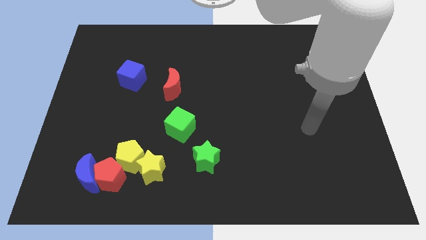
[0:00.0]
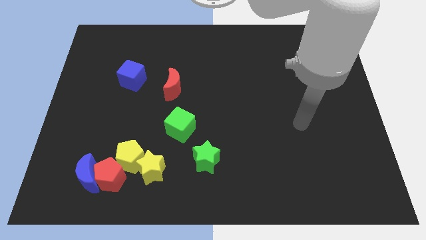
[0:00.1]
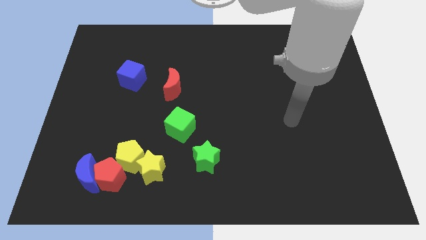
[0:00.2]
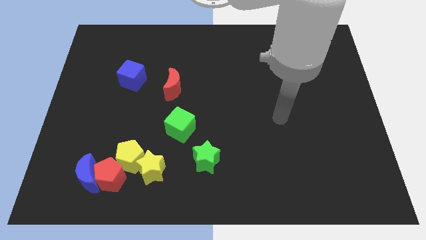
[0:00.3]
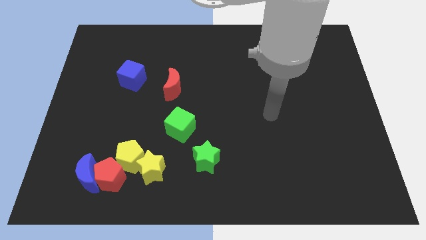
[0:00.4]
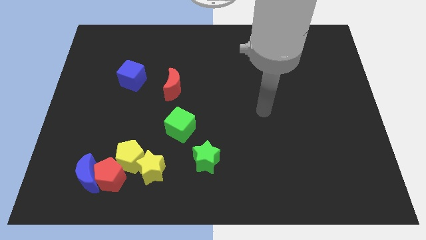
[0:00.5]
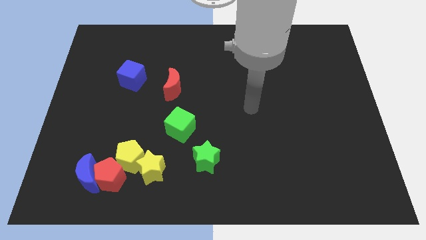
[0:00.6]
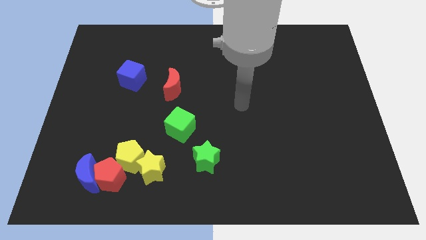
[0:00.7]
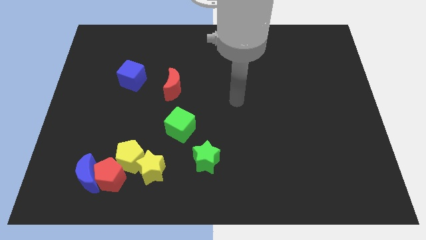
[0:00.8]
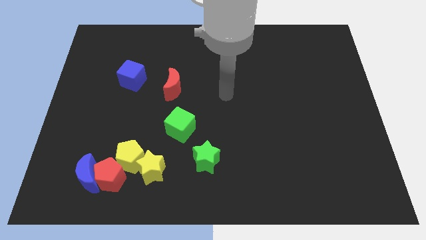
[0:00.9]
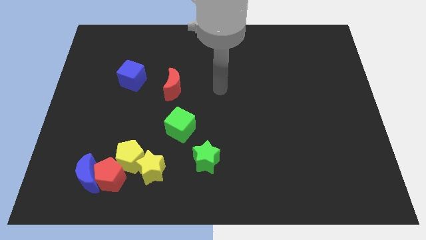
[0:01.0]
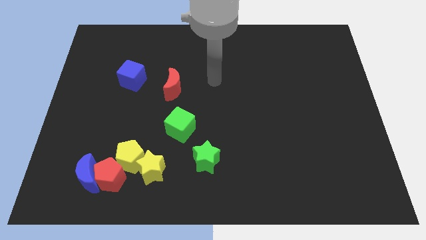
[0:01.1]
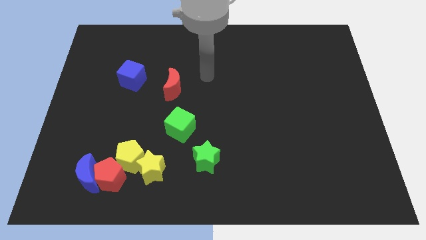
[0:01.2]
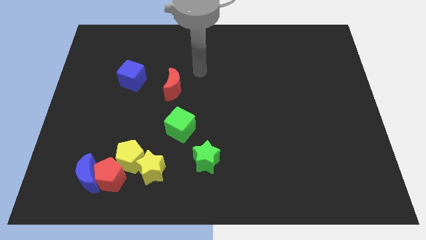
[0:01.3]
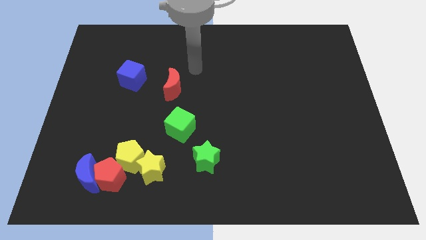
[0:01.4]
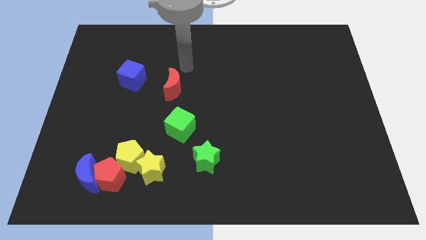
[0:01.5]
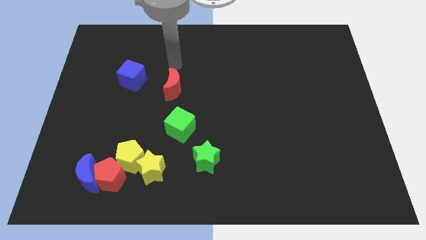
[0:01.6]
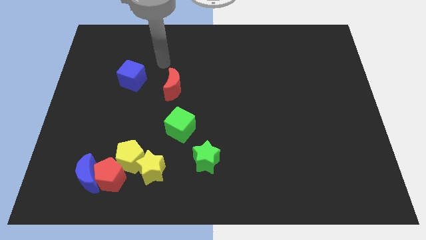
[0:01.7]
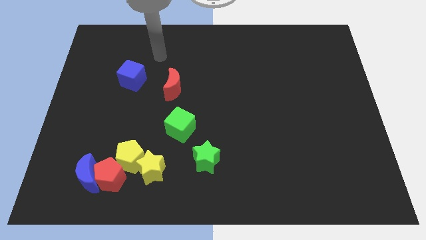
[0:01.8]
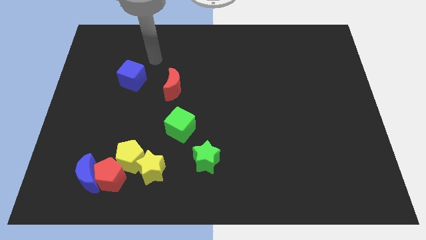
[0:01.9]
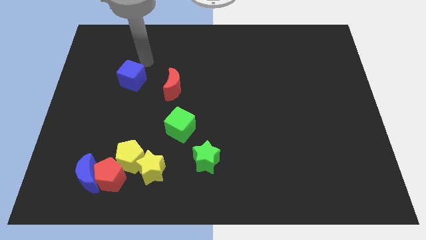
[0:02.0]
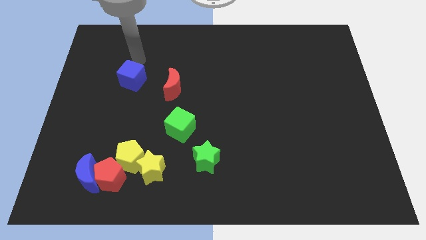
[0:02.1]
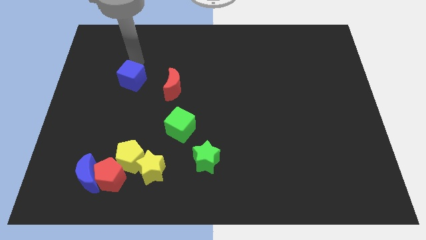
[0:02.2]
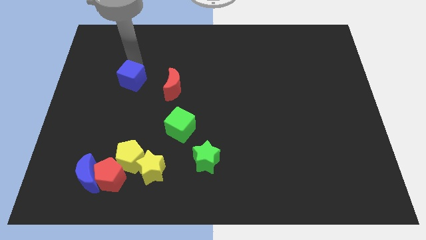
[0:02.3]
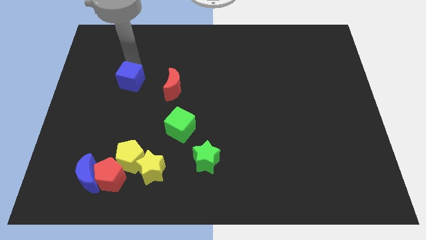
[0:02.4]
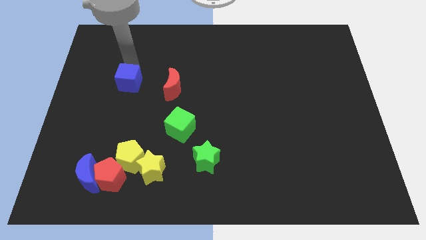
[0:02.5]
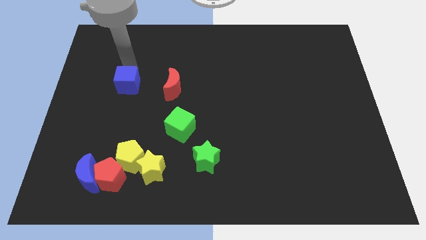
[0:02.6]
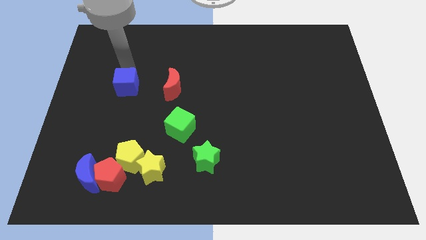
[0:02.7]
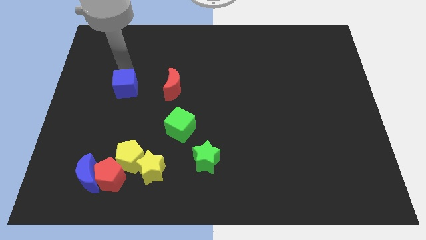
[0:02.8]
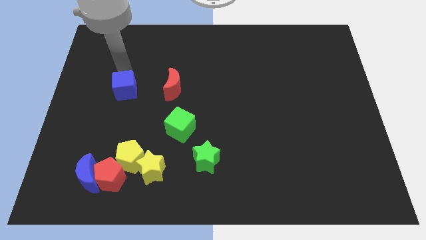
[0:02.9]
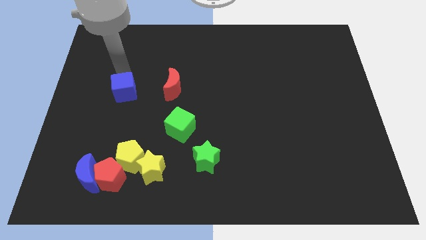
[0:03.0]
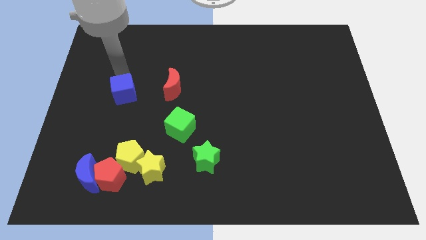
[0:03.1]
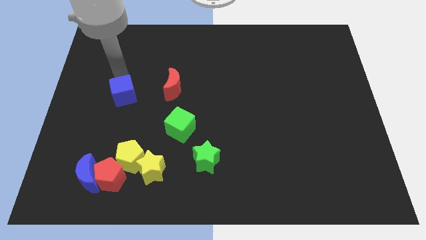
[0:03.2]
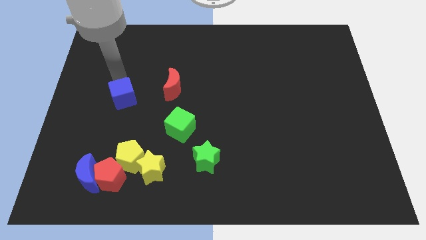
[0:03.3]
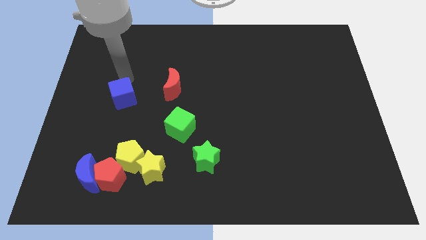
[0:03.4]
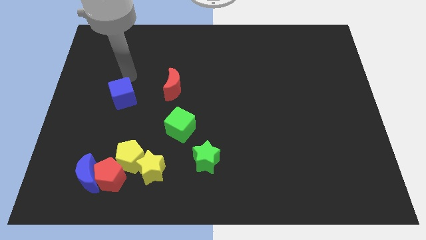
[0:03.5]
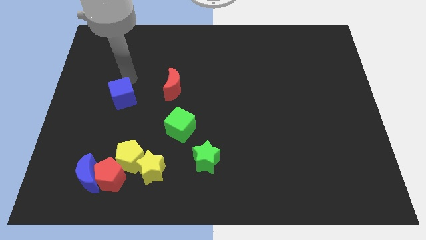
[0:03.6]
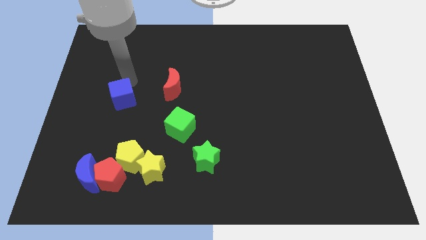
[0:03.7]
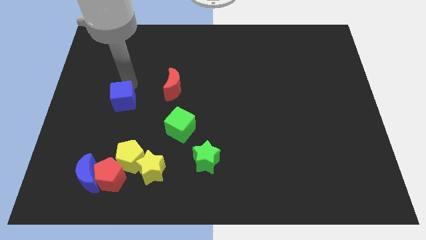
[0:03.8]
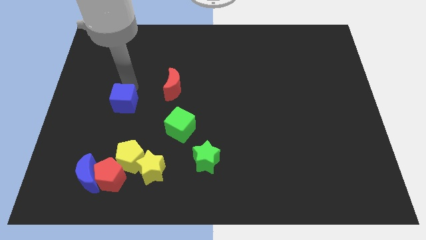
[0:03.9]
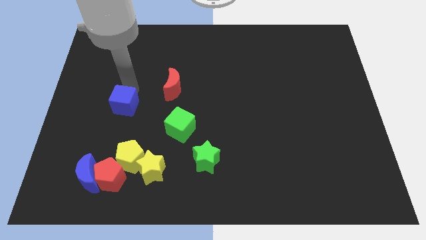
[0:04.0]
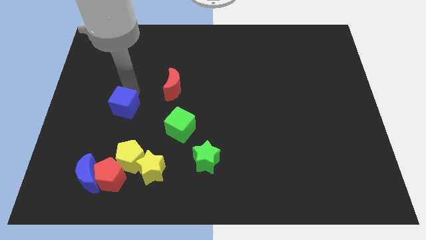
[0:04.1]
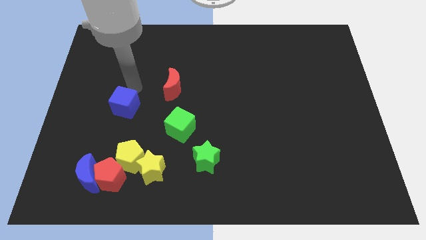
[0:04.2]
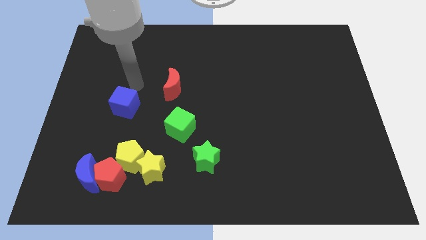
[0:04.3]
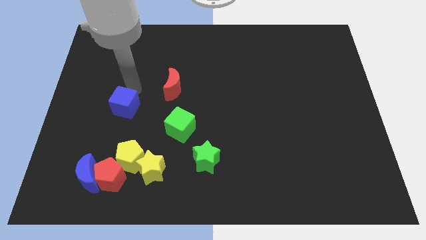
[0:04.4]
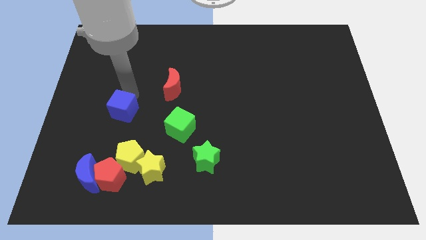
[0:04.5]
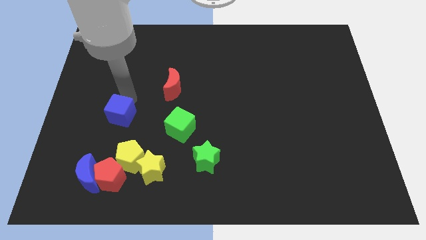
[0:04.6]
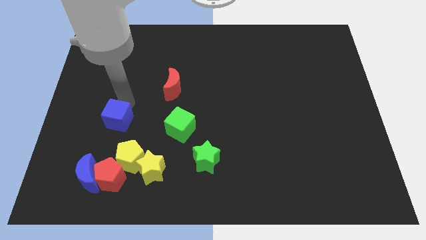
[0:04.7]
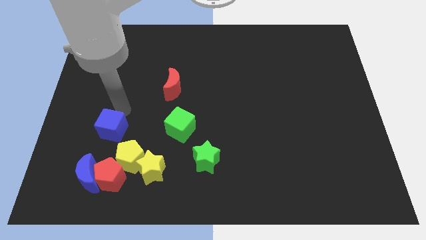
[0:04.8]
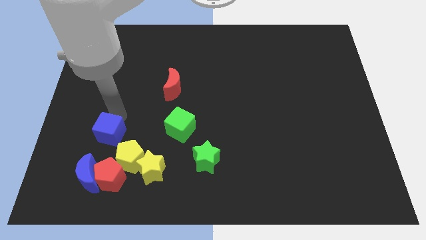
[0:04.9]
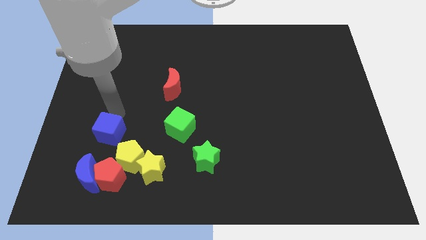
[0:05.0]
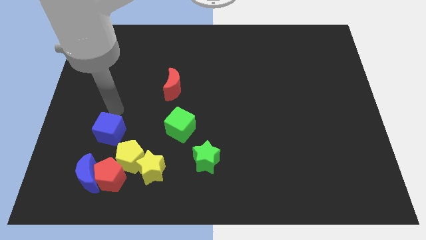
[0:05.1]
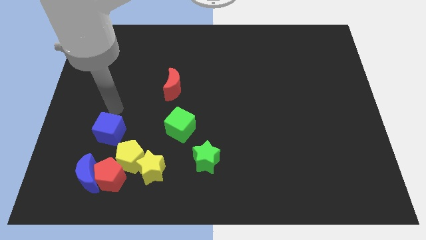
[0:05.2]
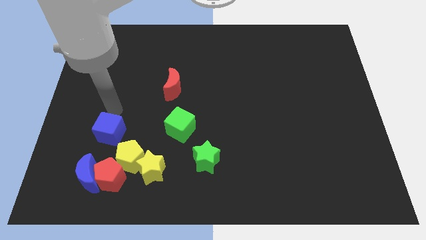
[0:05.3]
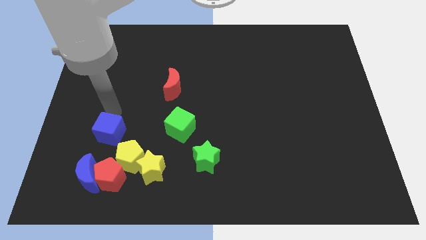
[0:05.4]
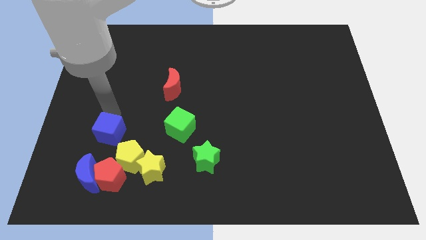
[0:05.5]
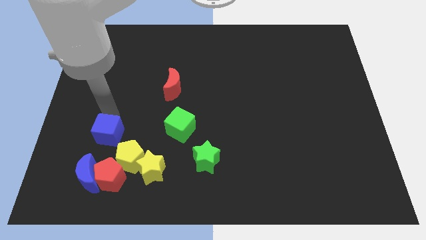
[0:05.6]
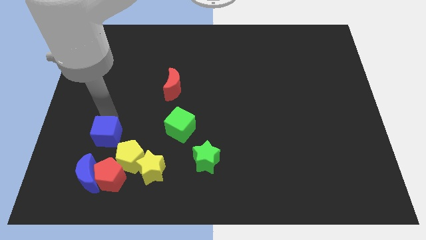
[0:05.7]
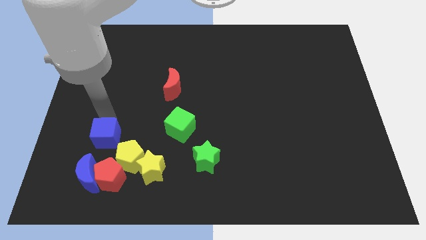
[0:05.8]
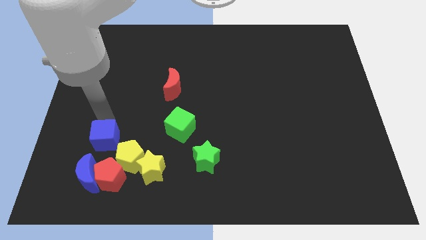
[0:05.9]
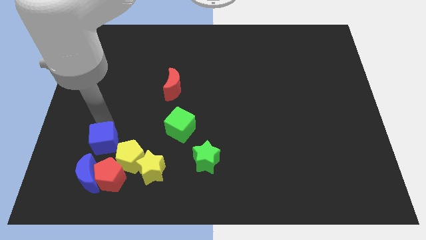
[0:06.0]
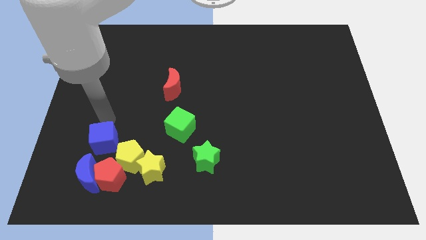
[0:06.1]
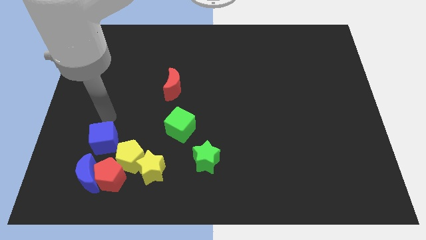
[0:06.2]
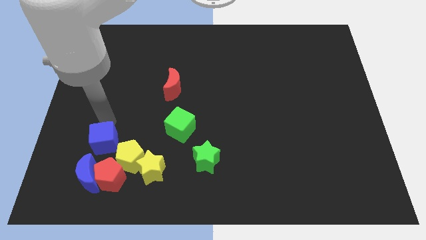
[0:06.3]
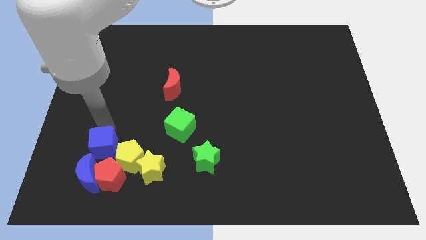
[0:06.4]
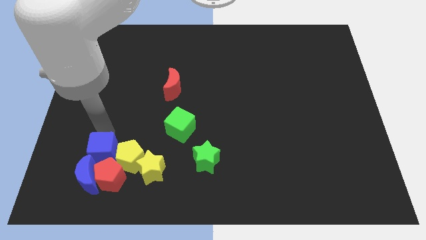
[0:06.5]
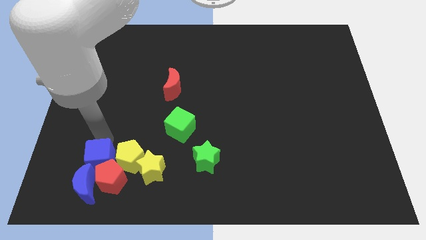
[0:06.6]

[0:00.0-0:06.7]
slide the blue cube towards the red pentagon
